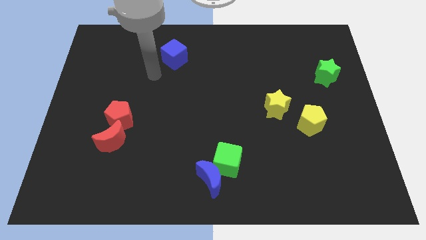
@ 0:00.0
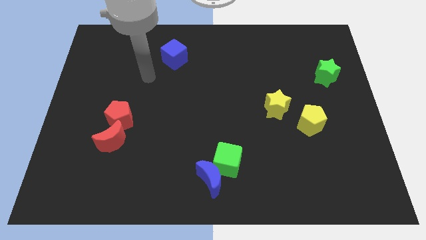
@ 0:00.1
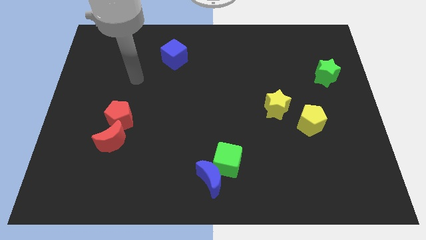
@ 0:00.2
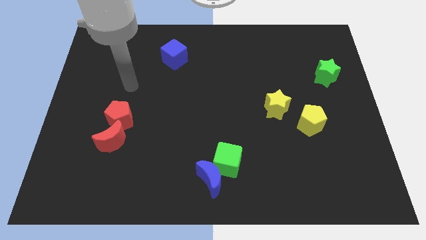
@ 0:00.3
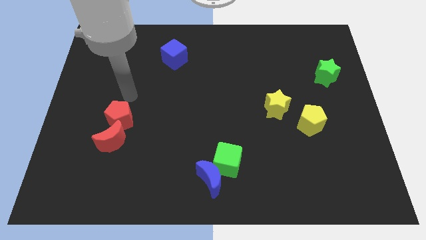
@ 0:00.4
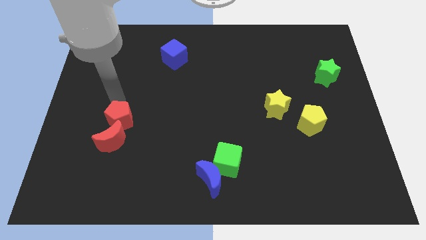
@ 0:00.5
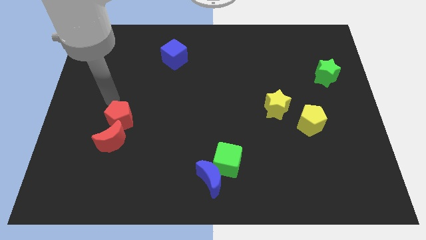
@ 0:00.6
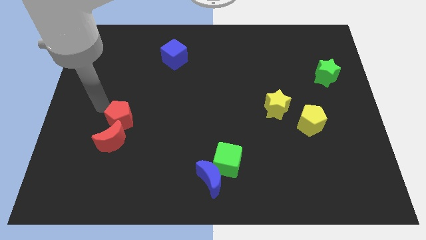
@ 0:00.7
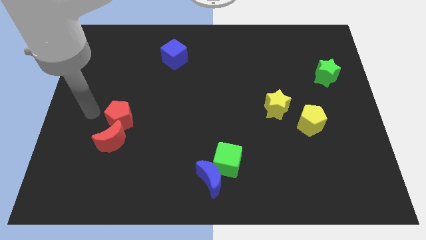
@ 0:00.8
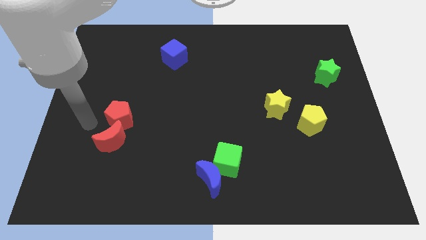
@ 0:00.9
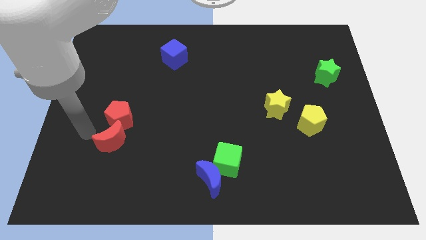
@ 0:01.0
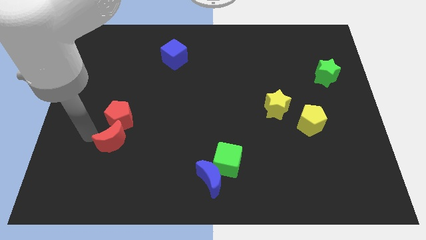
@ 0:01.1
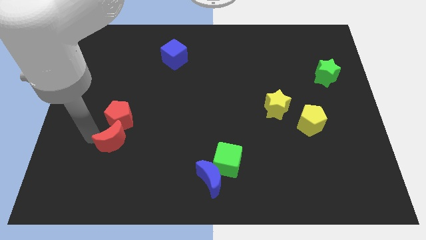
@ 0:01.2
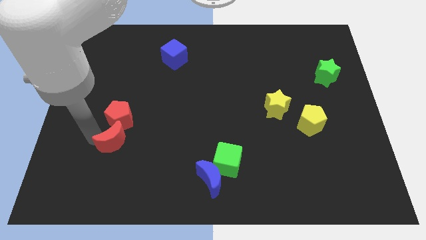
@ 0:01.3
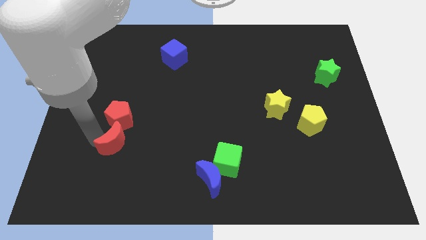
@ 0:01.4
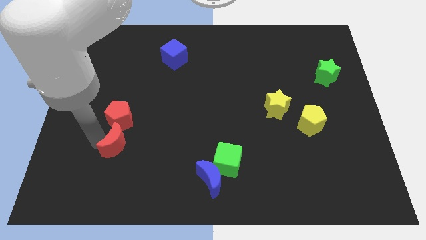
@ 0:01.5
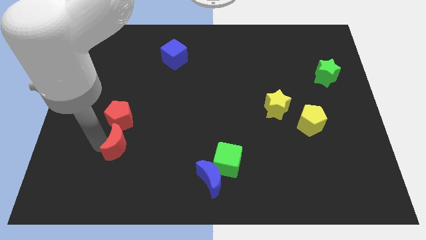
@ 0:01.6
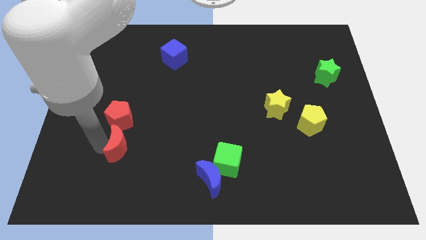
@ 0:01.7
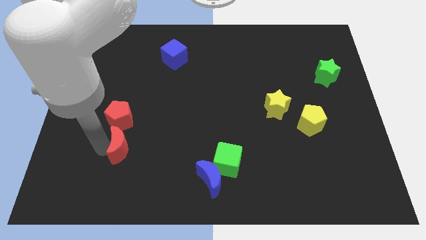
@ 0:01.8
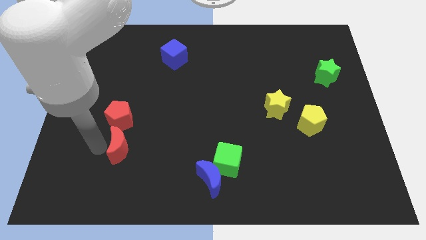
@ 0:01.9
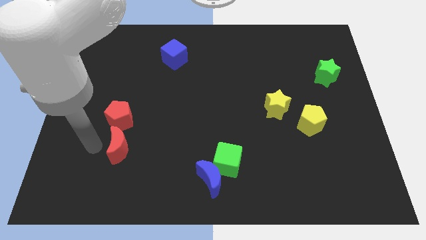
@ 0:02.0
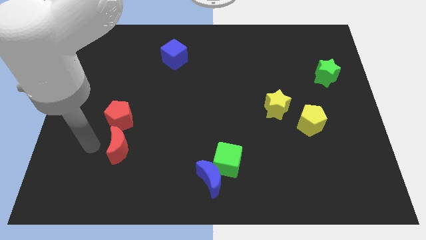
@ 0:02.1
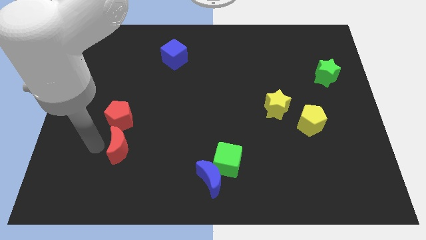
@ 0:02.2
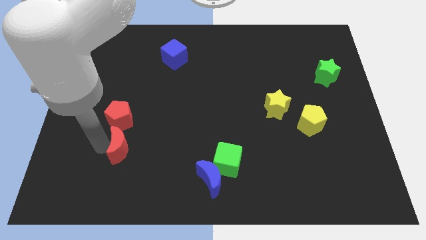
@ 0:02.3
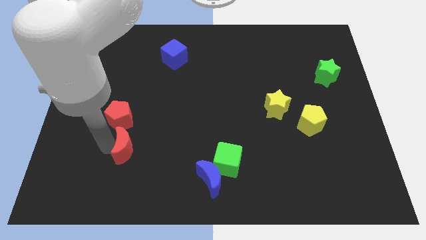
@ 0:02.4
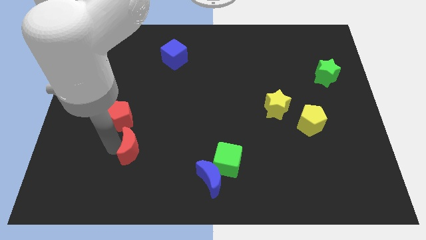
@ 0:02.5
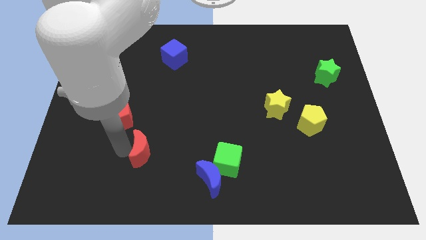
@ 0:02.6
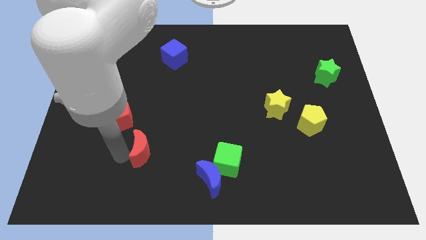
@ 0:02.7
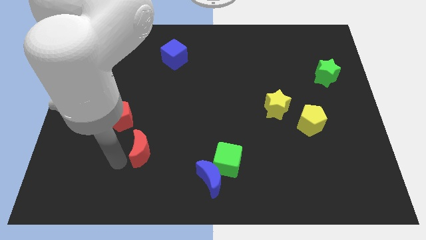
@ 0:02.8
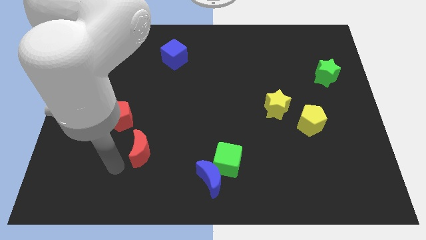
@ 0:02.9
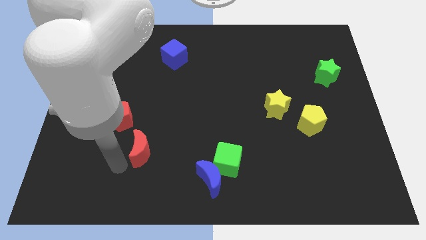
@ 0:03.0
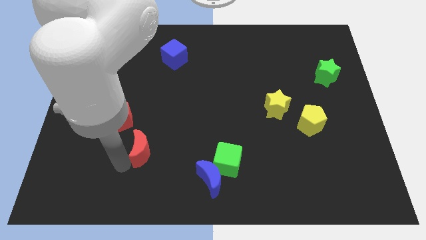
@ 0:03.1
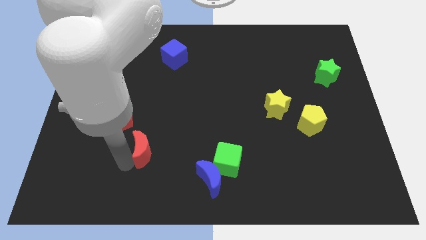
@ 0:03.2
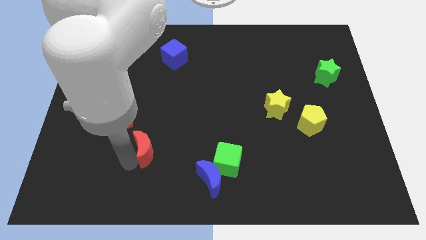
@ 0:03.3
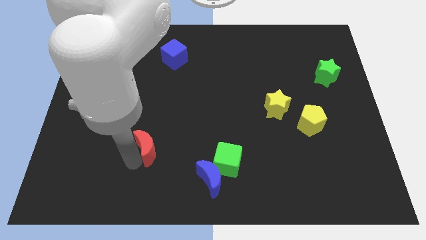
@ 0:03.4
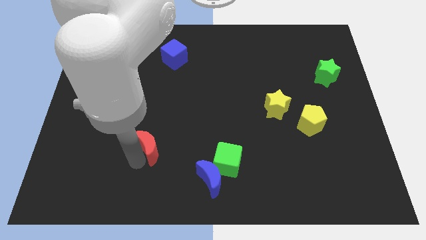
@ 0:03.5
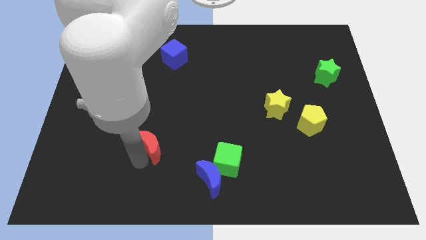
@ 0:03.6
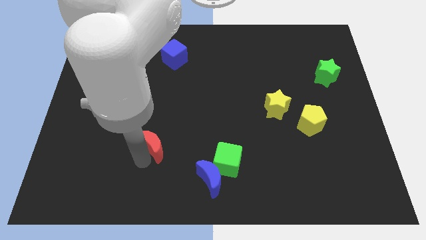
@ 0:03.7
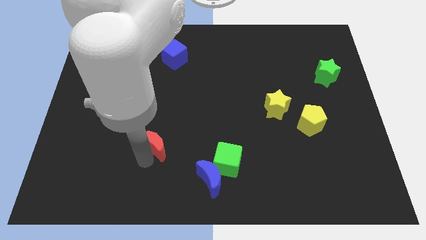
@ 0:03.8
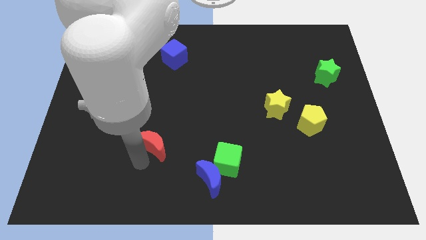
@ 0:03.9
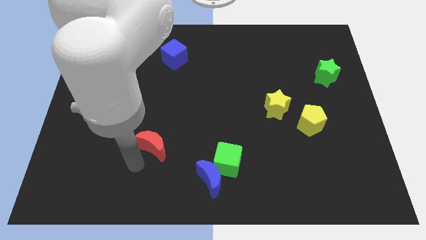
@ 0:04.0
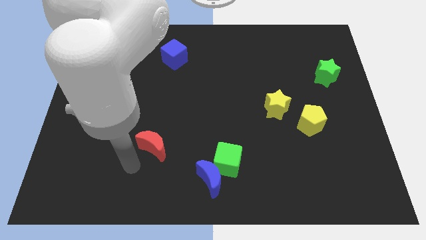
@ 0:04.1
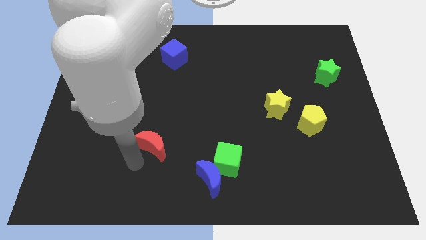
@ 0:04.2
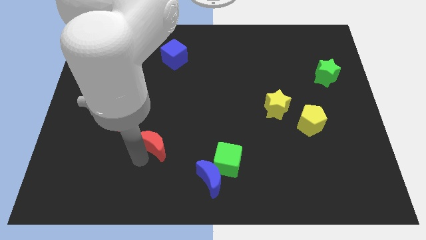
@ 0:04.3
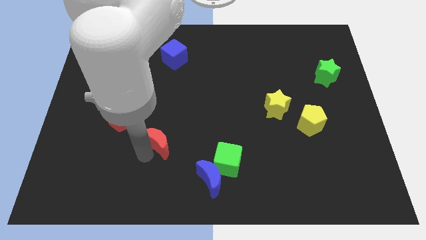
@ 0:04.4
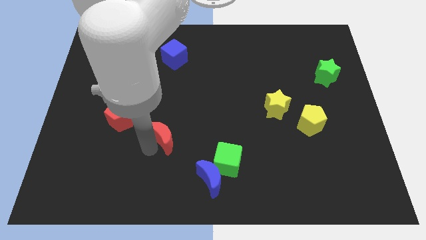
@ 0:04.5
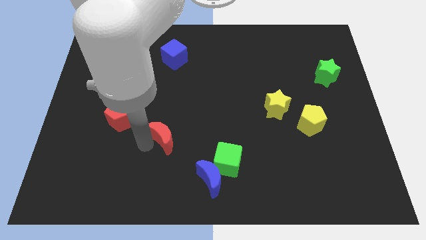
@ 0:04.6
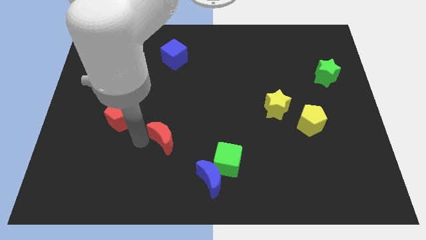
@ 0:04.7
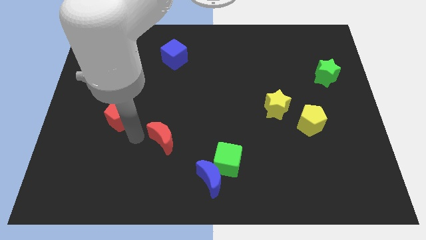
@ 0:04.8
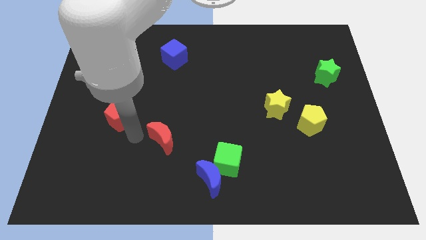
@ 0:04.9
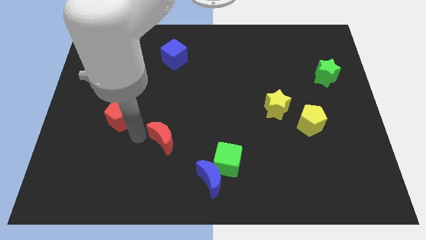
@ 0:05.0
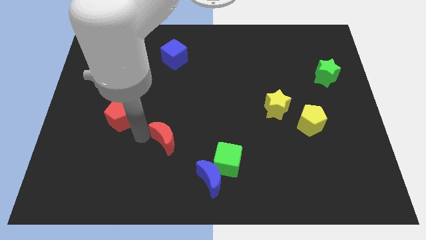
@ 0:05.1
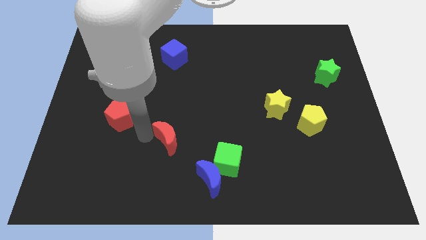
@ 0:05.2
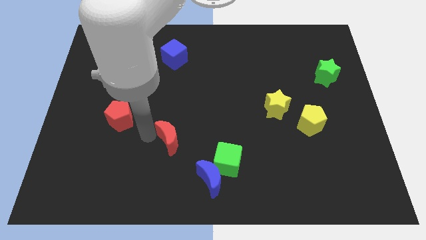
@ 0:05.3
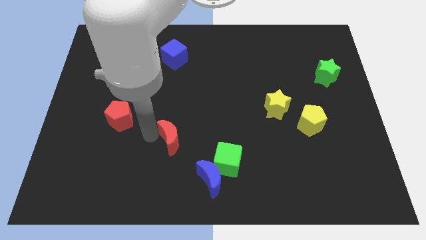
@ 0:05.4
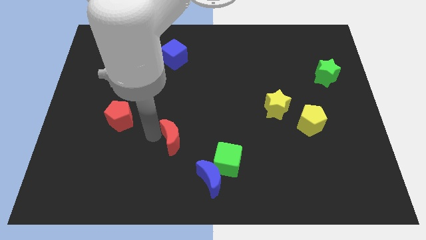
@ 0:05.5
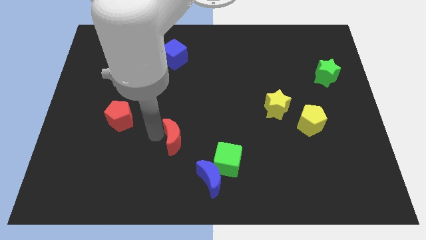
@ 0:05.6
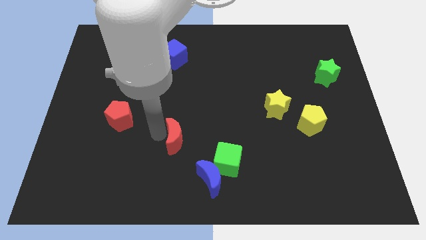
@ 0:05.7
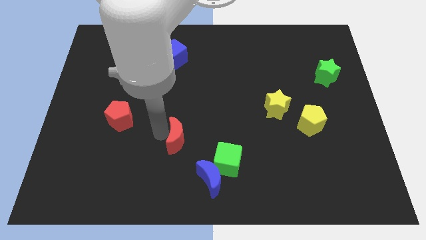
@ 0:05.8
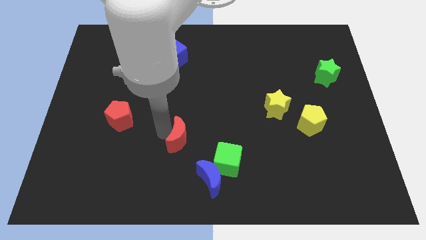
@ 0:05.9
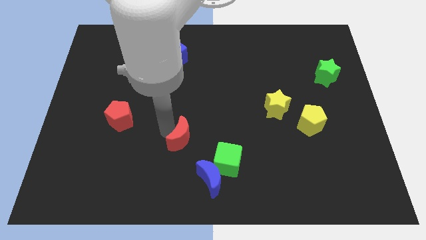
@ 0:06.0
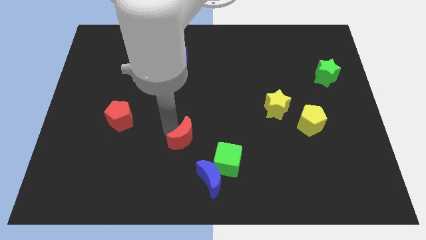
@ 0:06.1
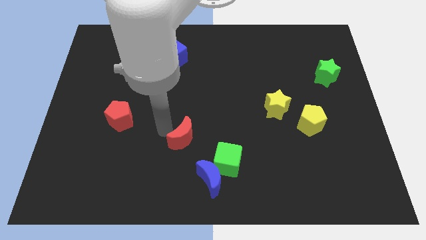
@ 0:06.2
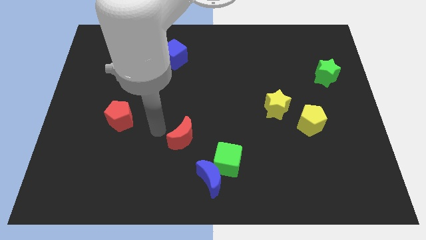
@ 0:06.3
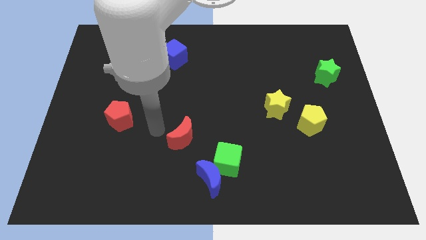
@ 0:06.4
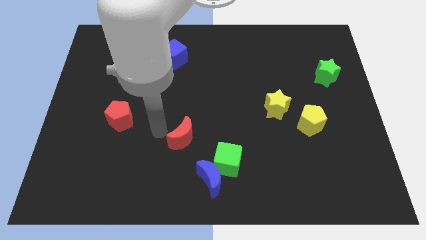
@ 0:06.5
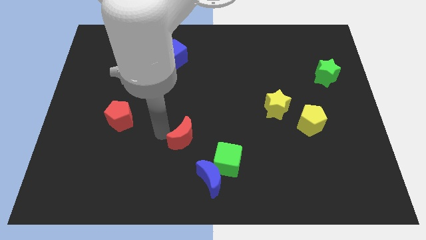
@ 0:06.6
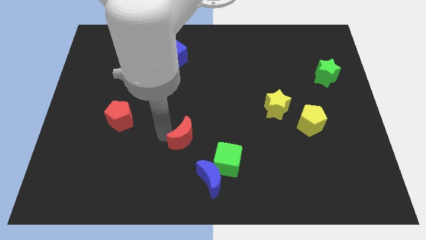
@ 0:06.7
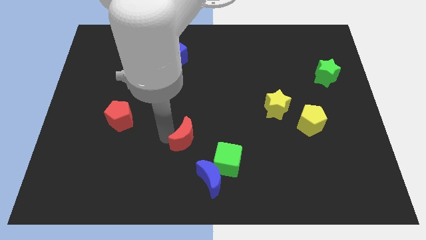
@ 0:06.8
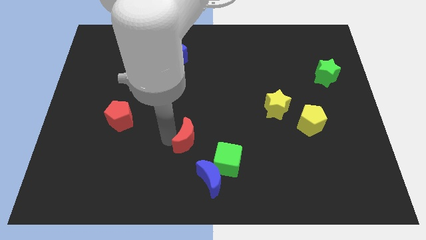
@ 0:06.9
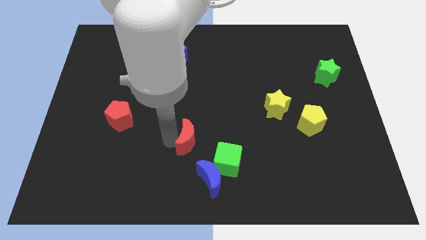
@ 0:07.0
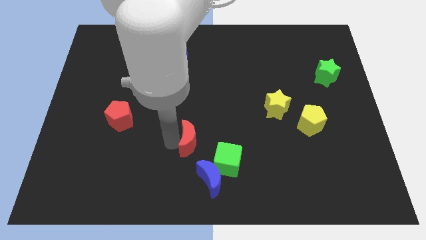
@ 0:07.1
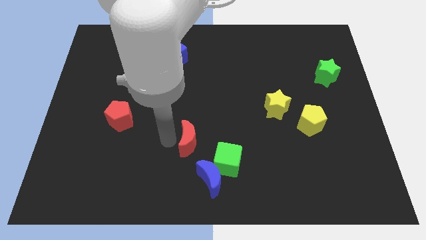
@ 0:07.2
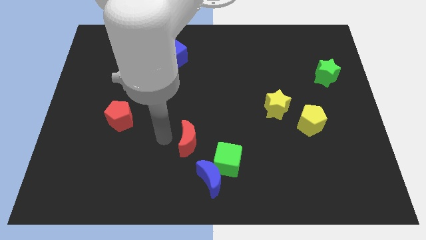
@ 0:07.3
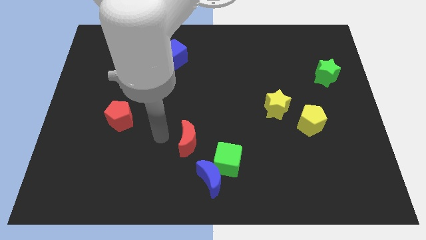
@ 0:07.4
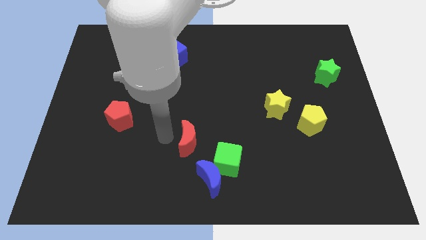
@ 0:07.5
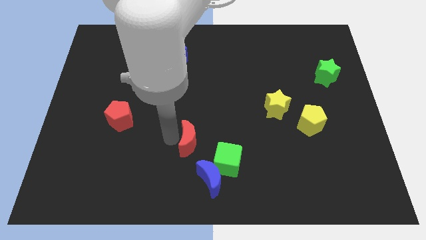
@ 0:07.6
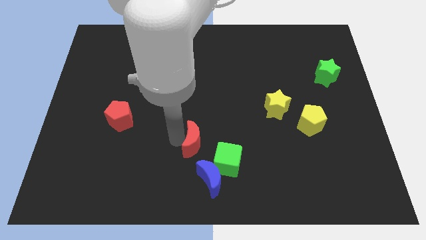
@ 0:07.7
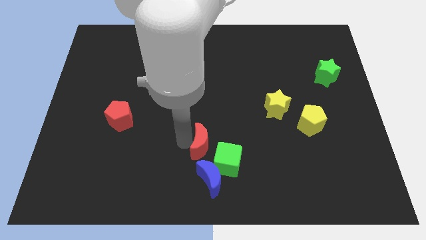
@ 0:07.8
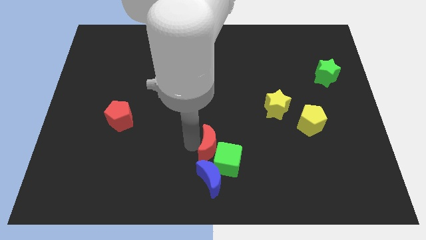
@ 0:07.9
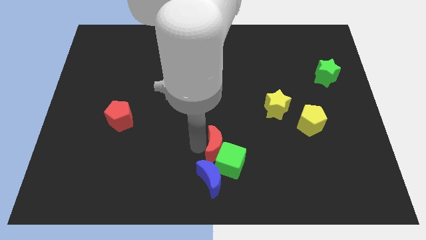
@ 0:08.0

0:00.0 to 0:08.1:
move the red moon to the top right side of the blue moon

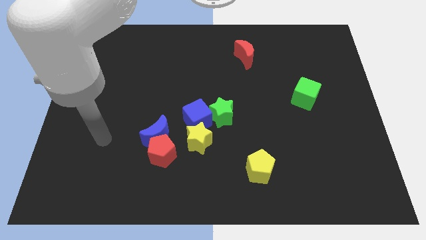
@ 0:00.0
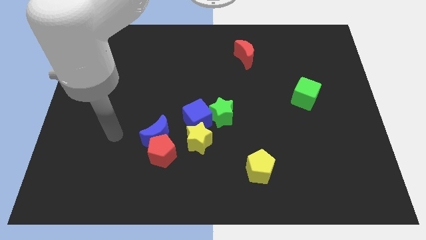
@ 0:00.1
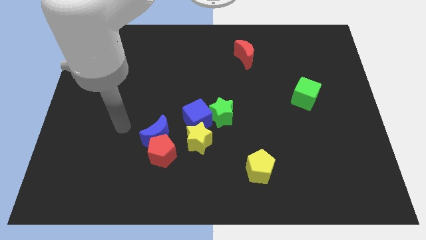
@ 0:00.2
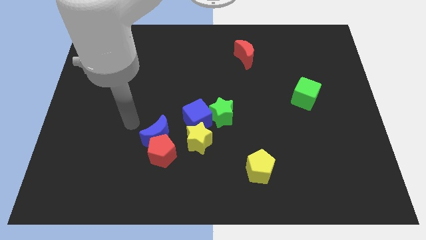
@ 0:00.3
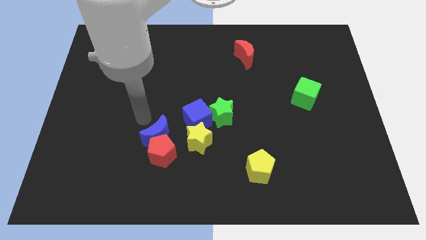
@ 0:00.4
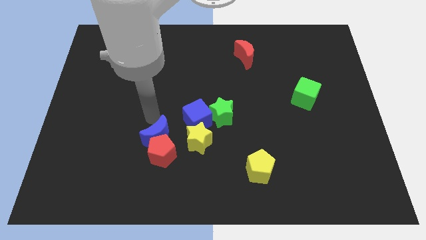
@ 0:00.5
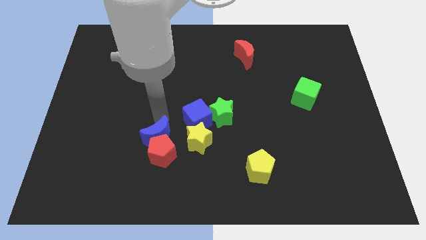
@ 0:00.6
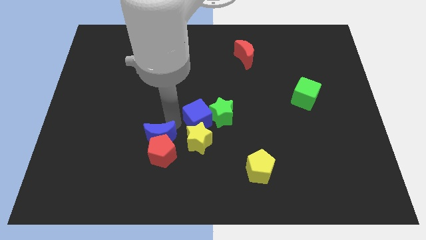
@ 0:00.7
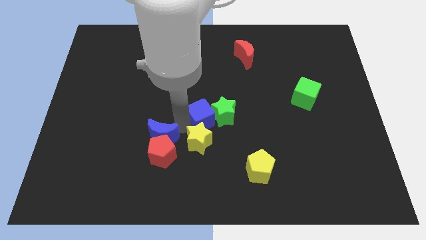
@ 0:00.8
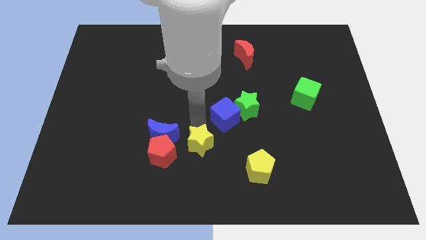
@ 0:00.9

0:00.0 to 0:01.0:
put the green star just left of the green cube
